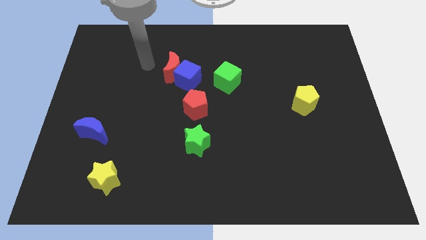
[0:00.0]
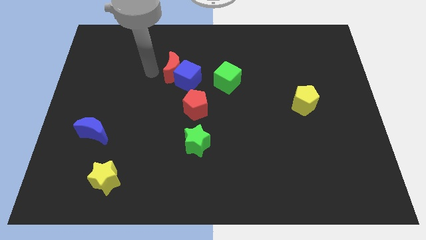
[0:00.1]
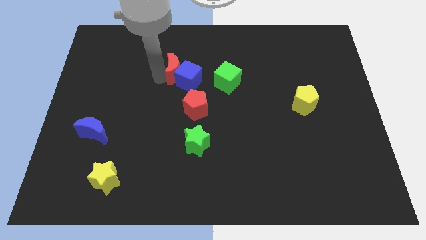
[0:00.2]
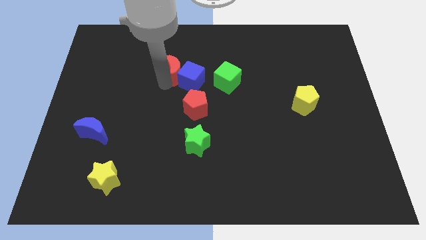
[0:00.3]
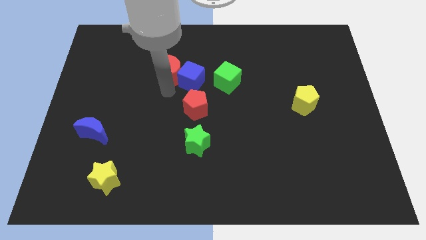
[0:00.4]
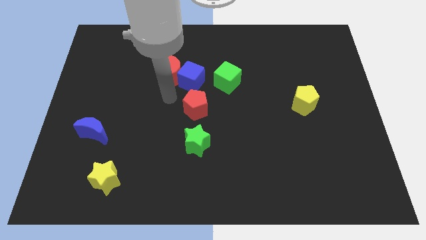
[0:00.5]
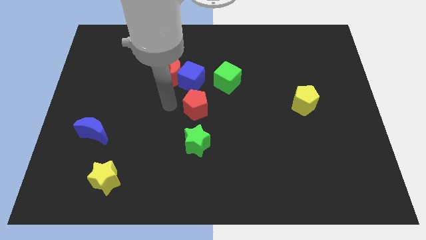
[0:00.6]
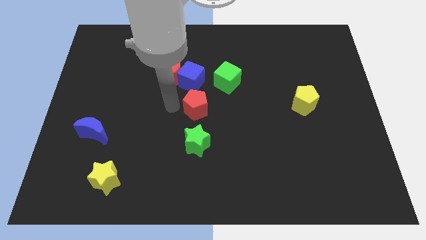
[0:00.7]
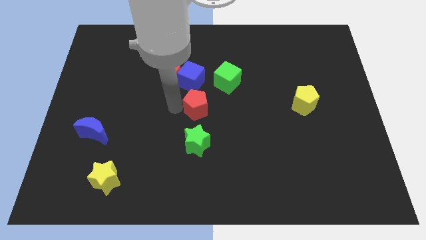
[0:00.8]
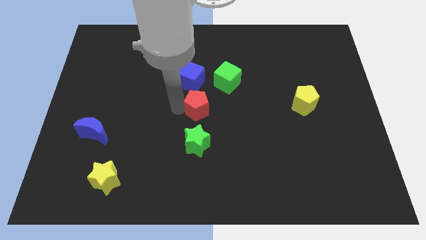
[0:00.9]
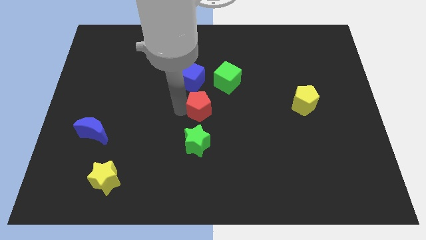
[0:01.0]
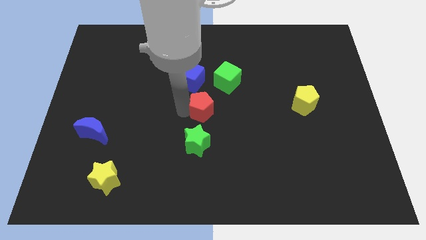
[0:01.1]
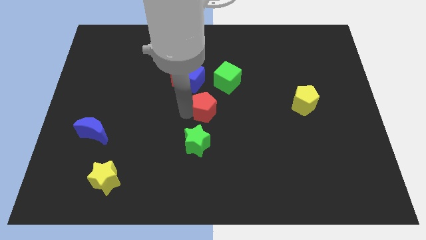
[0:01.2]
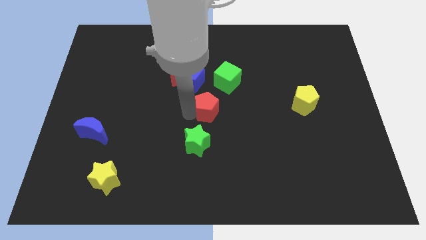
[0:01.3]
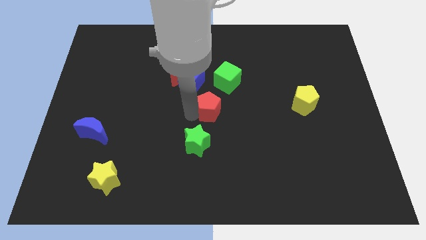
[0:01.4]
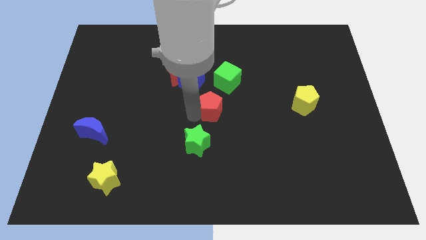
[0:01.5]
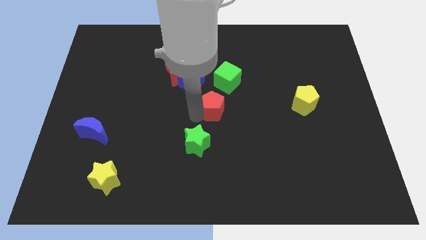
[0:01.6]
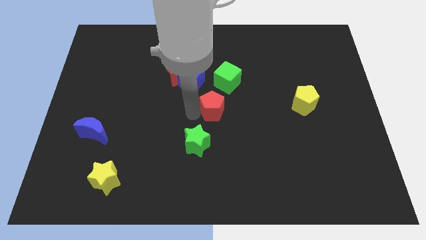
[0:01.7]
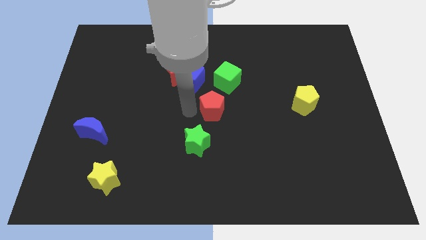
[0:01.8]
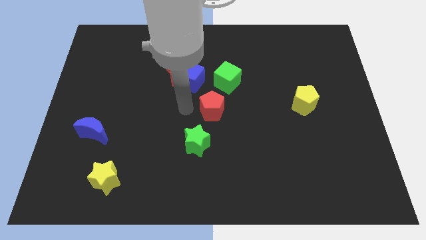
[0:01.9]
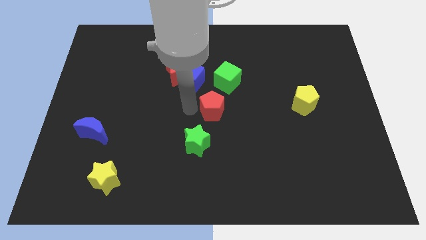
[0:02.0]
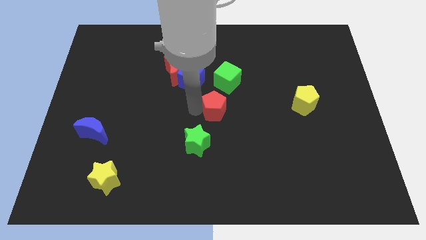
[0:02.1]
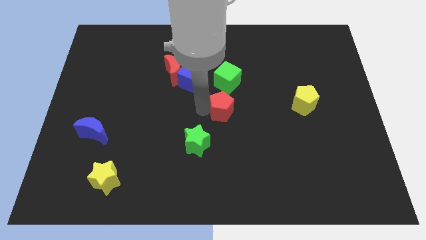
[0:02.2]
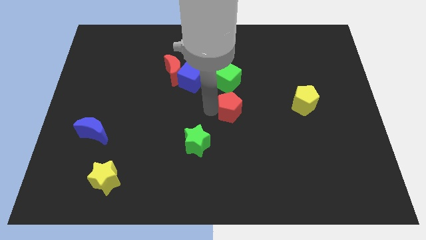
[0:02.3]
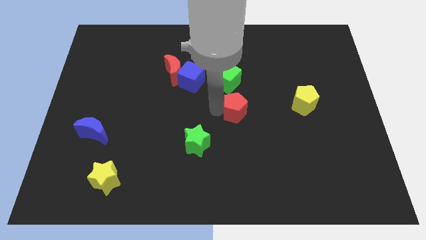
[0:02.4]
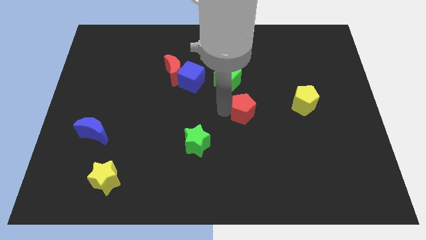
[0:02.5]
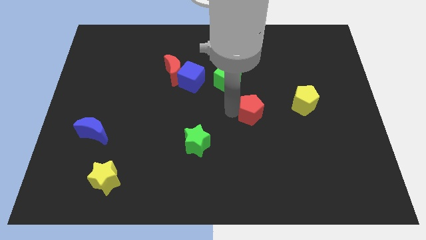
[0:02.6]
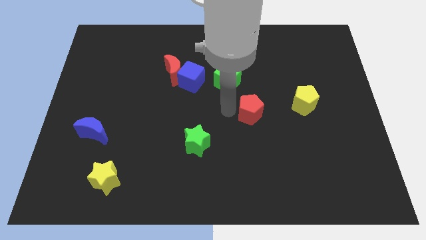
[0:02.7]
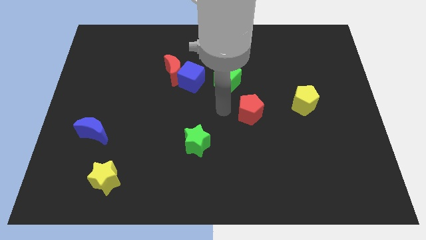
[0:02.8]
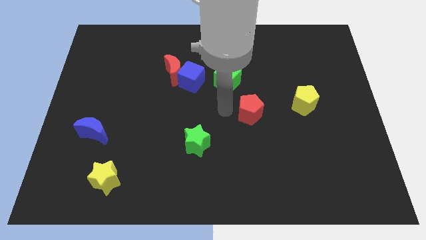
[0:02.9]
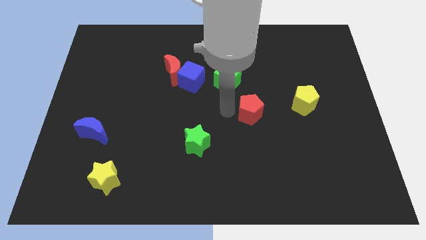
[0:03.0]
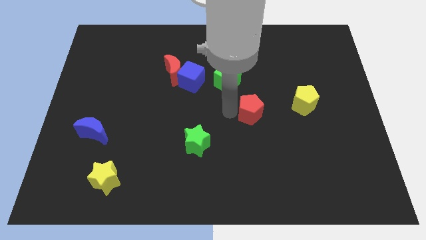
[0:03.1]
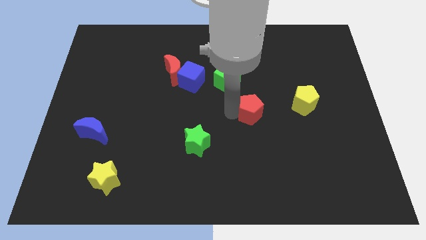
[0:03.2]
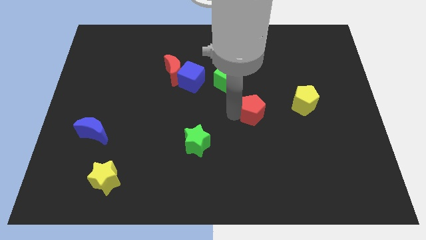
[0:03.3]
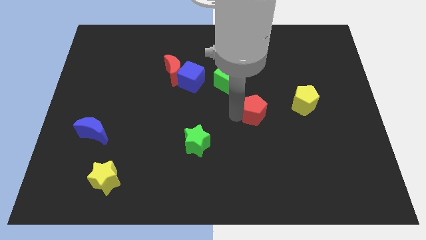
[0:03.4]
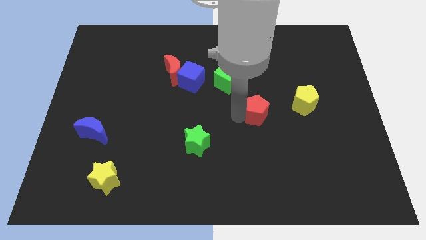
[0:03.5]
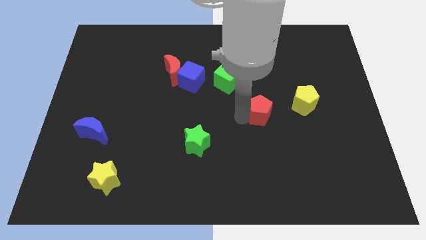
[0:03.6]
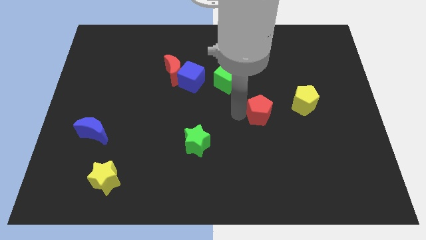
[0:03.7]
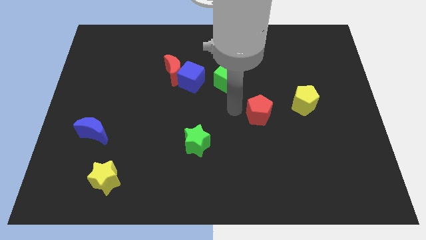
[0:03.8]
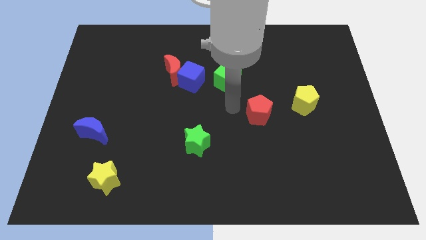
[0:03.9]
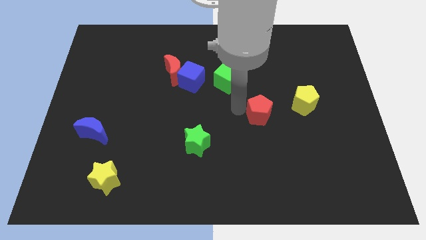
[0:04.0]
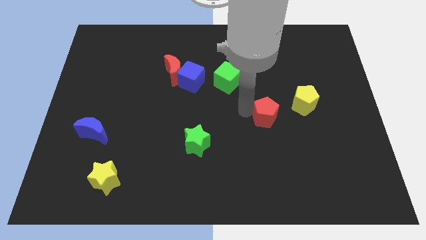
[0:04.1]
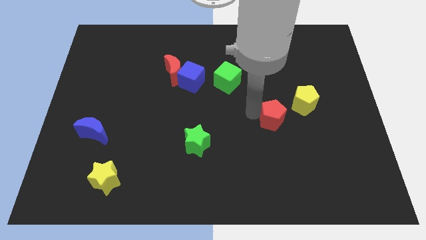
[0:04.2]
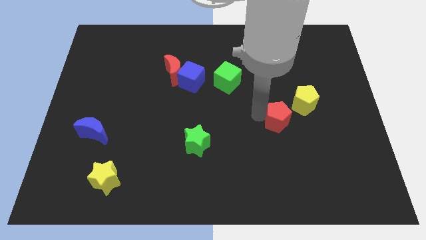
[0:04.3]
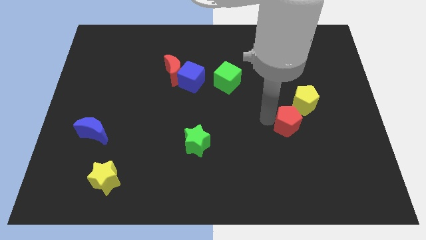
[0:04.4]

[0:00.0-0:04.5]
push the red pentagon to the right

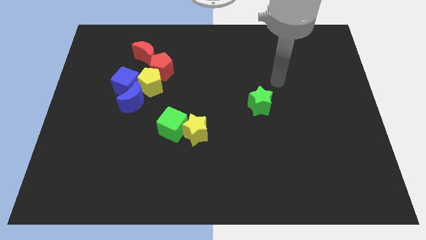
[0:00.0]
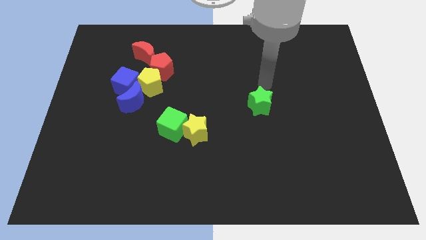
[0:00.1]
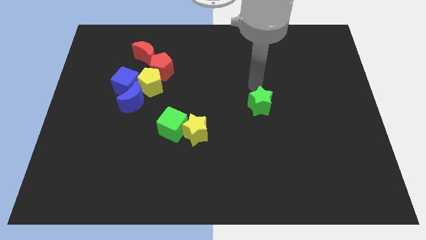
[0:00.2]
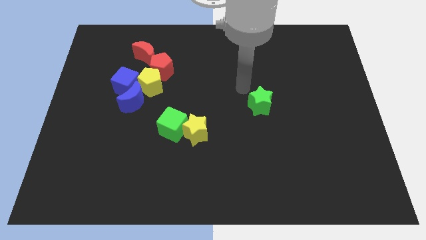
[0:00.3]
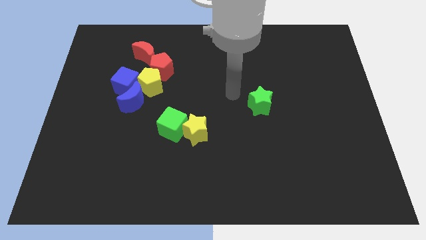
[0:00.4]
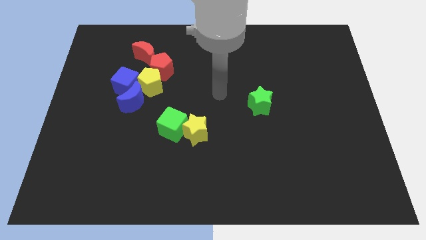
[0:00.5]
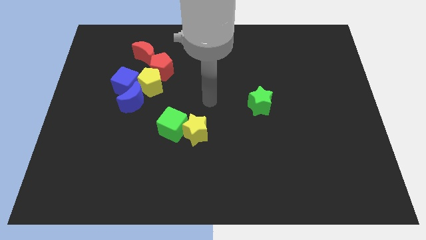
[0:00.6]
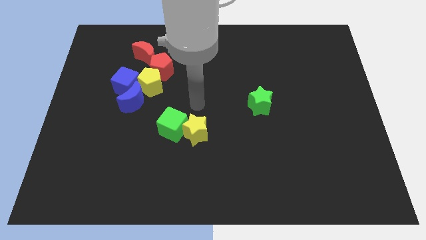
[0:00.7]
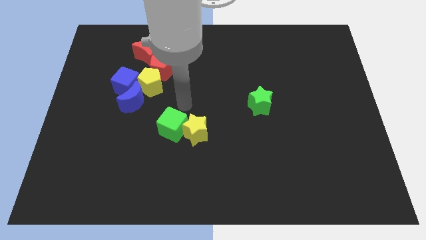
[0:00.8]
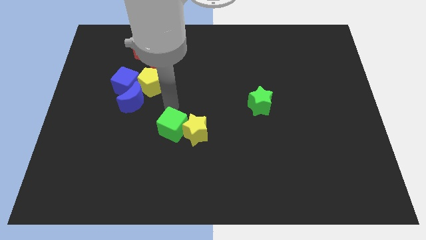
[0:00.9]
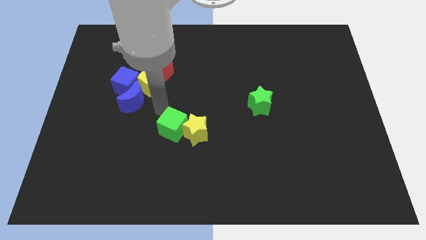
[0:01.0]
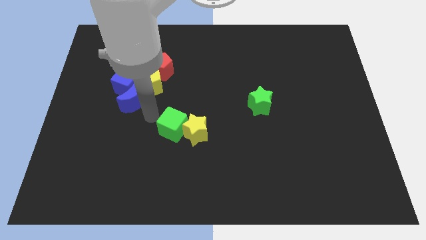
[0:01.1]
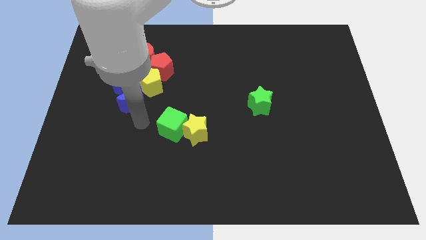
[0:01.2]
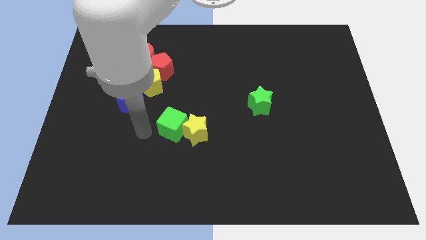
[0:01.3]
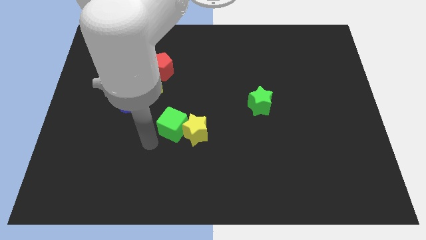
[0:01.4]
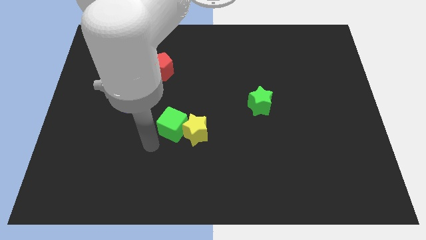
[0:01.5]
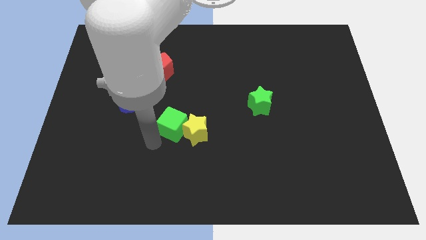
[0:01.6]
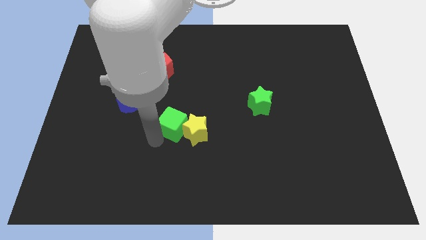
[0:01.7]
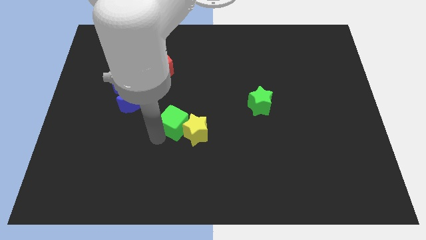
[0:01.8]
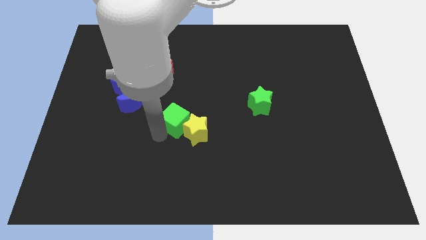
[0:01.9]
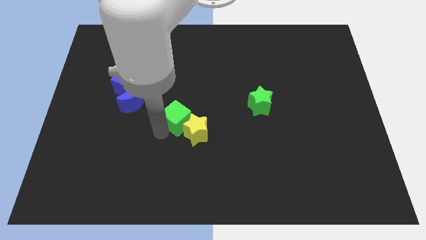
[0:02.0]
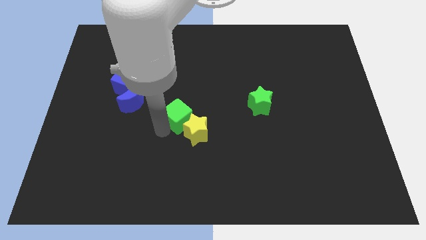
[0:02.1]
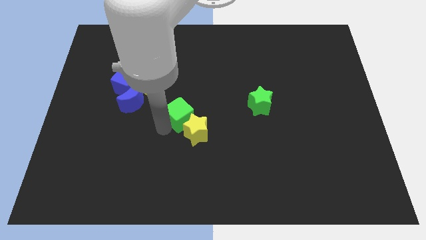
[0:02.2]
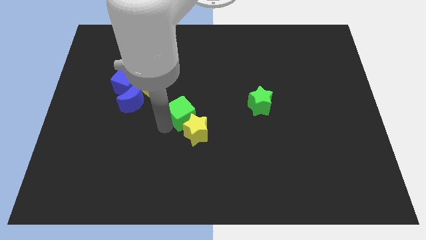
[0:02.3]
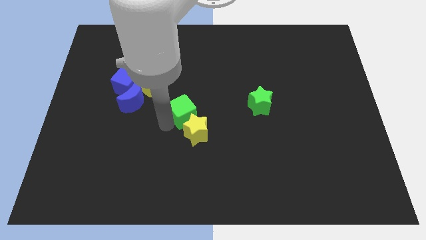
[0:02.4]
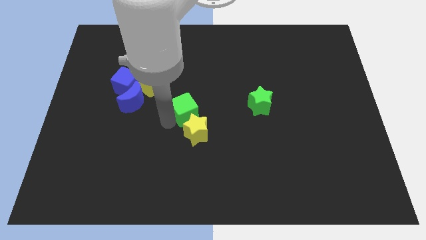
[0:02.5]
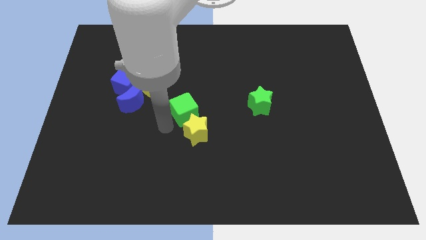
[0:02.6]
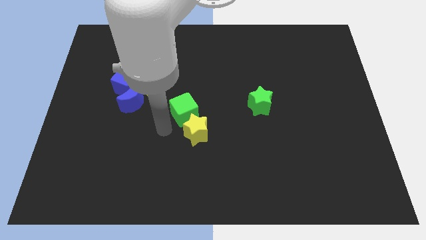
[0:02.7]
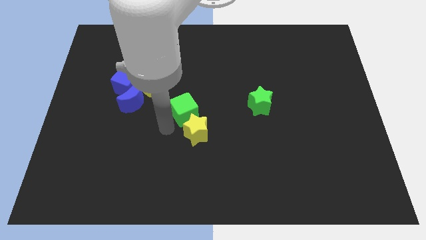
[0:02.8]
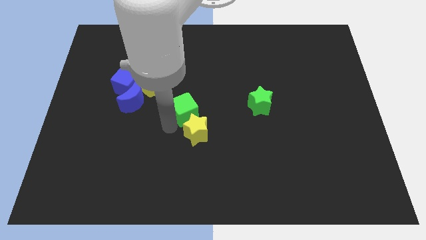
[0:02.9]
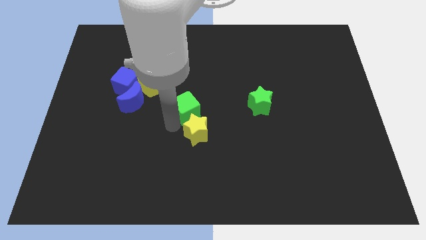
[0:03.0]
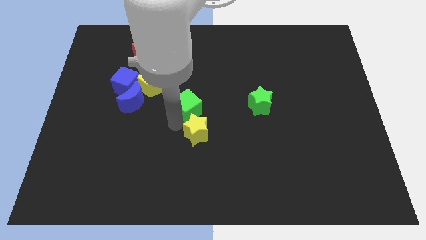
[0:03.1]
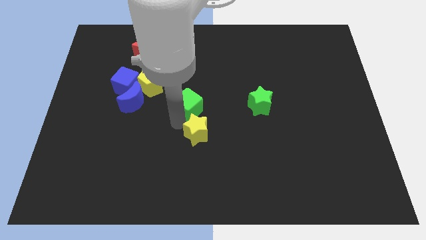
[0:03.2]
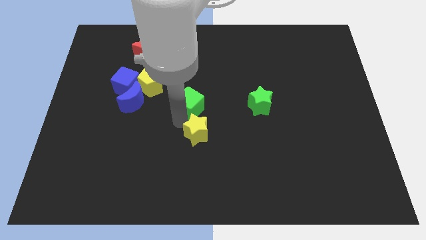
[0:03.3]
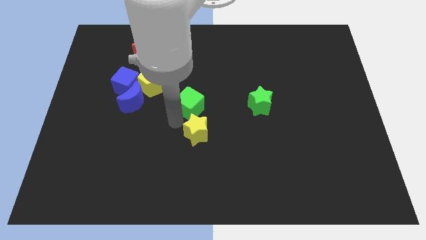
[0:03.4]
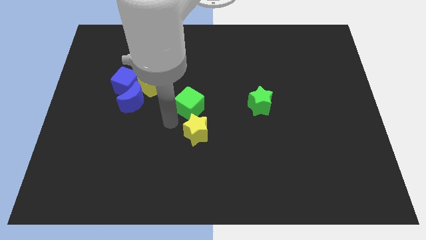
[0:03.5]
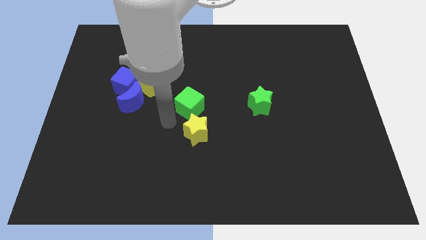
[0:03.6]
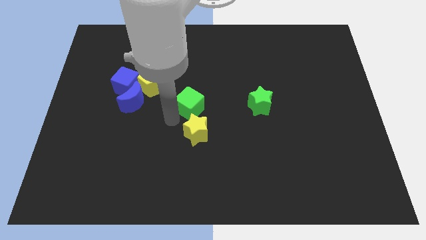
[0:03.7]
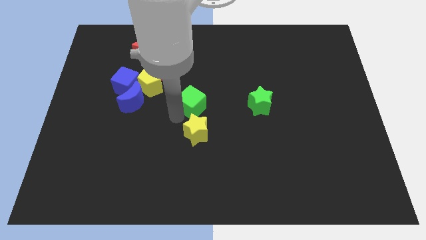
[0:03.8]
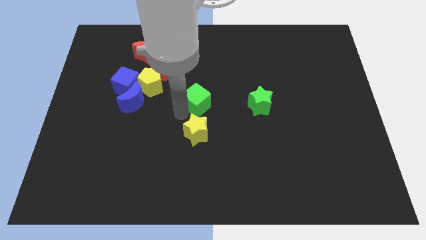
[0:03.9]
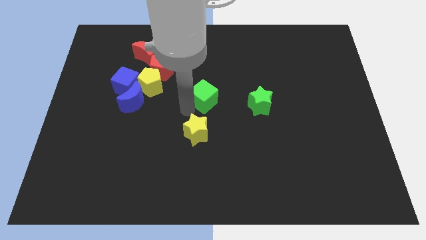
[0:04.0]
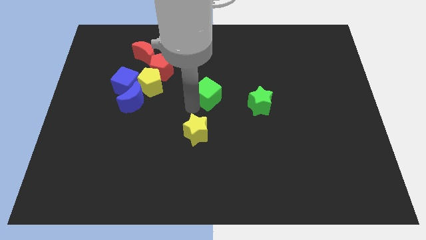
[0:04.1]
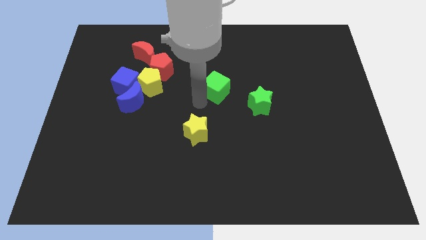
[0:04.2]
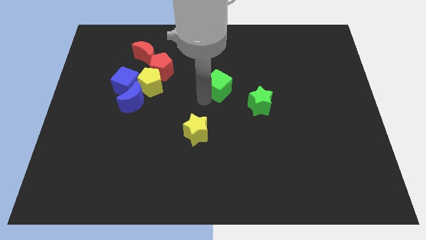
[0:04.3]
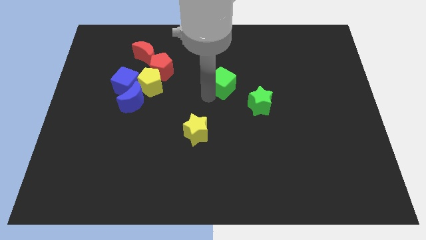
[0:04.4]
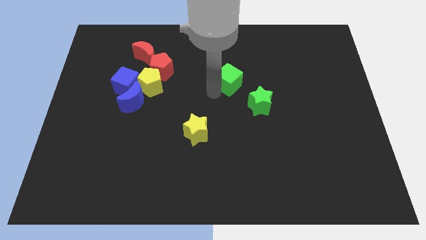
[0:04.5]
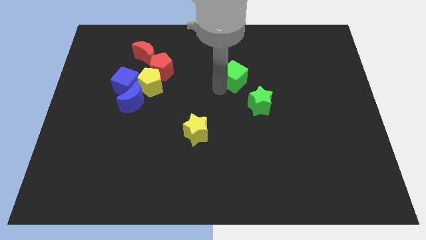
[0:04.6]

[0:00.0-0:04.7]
push the green cube diagonally upwards and to the right
